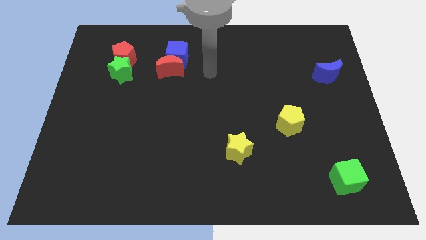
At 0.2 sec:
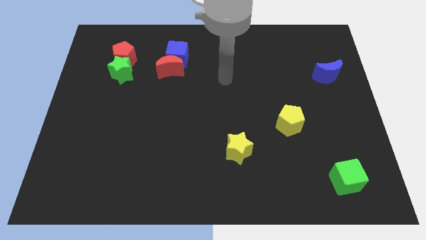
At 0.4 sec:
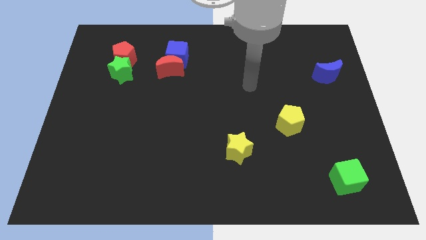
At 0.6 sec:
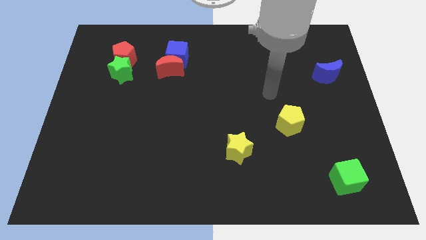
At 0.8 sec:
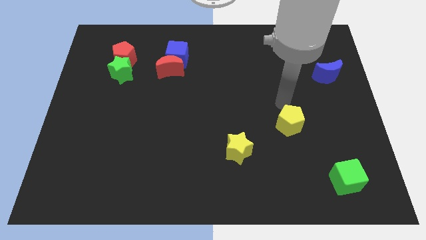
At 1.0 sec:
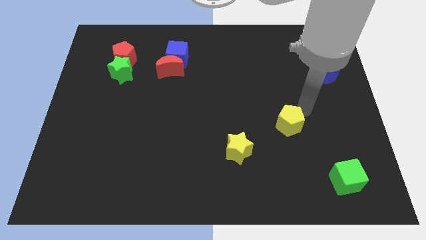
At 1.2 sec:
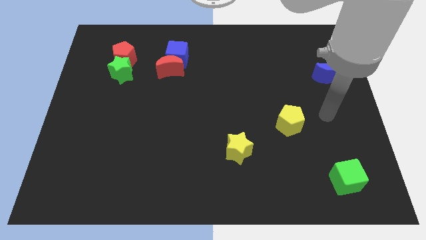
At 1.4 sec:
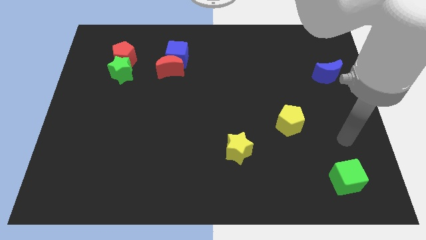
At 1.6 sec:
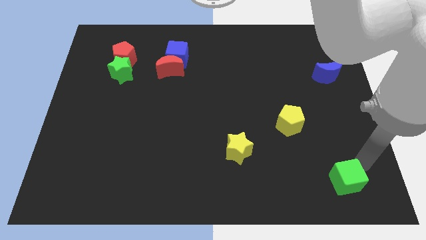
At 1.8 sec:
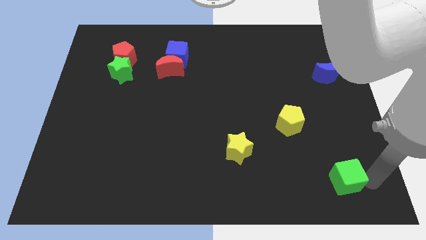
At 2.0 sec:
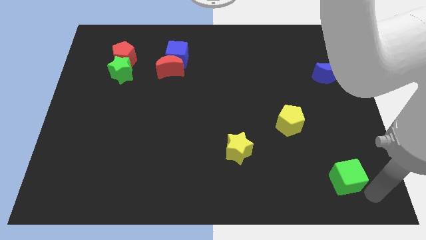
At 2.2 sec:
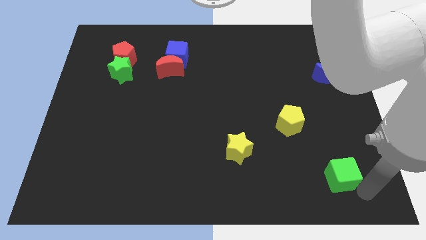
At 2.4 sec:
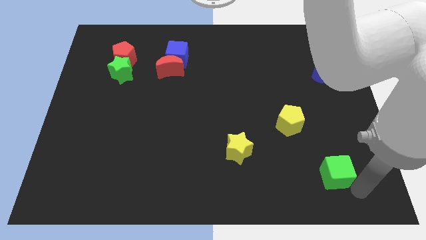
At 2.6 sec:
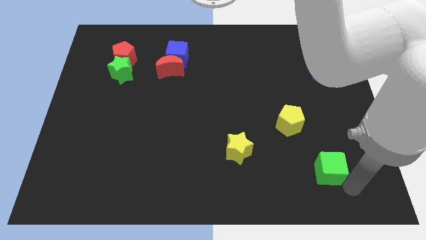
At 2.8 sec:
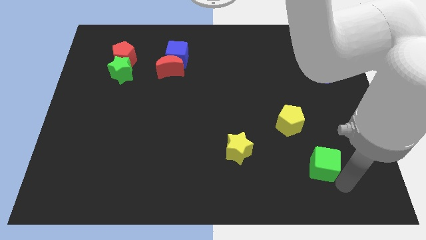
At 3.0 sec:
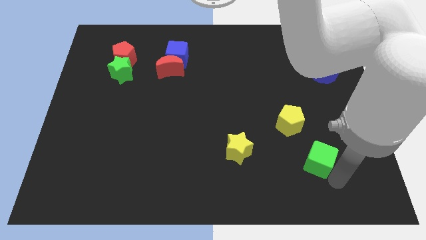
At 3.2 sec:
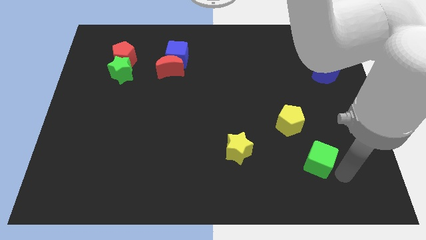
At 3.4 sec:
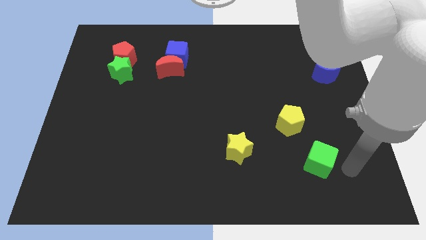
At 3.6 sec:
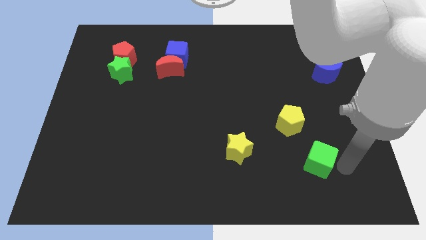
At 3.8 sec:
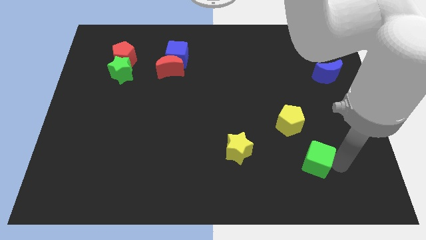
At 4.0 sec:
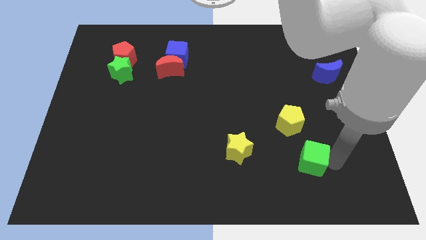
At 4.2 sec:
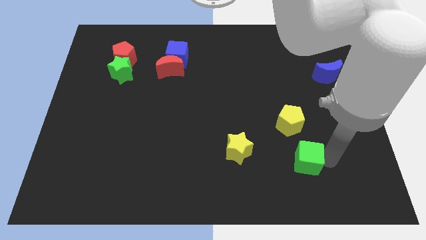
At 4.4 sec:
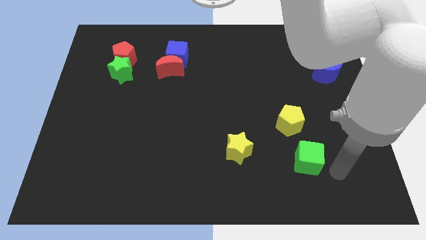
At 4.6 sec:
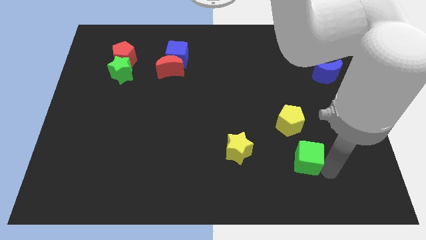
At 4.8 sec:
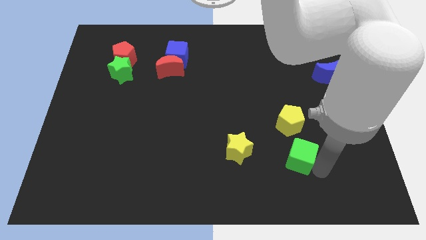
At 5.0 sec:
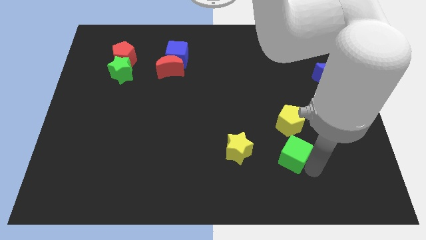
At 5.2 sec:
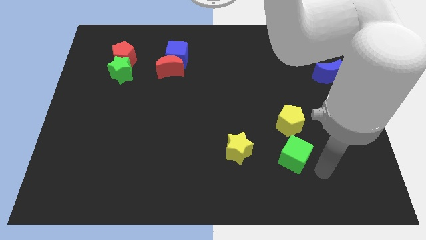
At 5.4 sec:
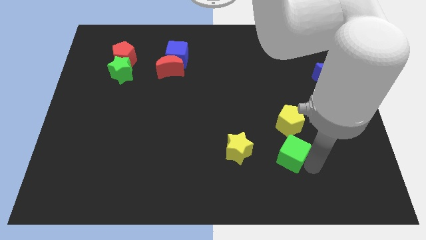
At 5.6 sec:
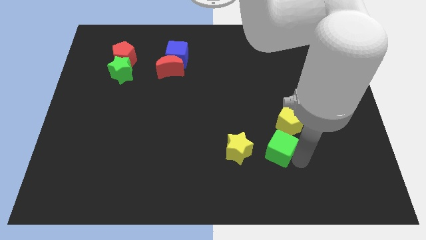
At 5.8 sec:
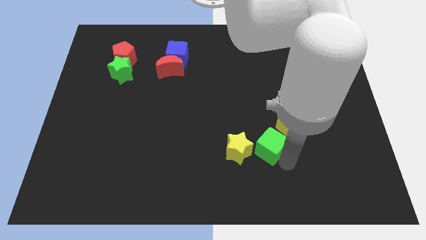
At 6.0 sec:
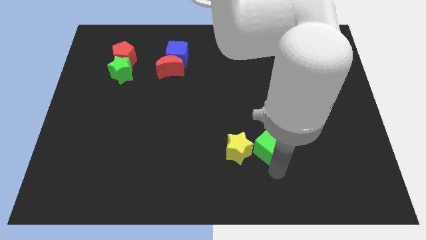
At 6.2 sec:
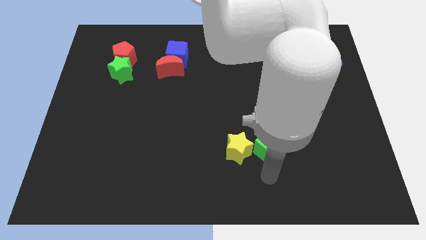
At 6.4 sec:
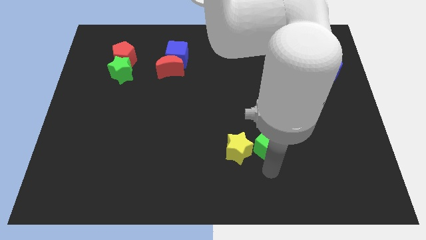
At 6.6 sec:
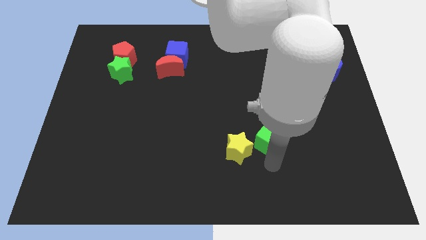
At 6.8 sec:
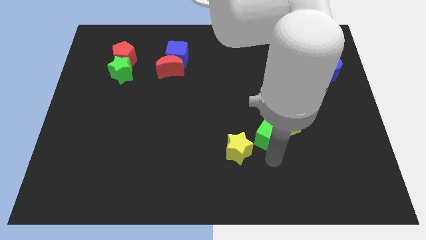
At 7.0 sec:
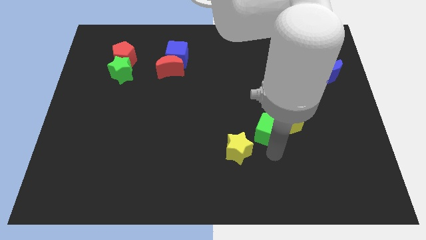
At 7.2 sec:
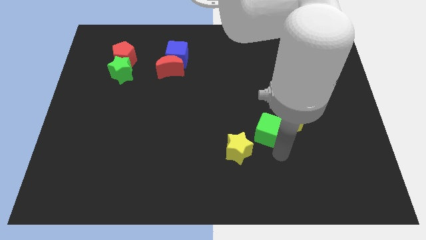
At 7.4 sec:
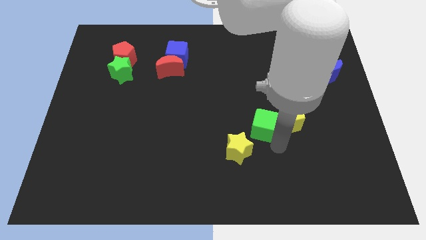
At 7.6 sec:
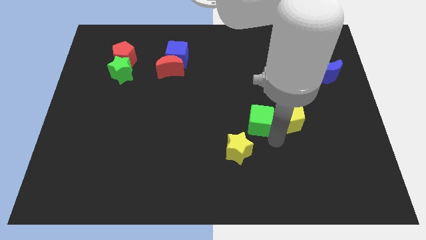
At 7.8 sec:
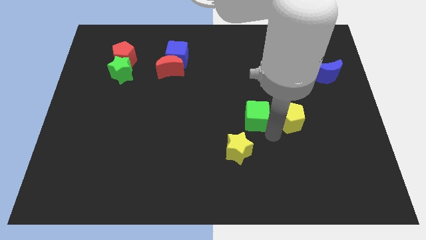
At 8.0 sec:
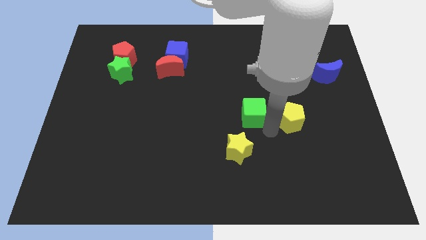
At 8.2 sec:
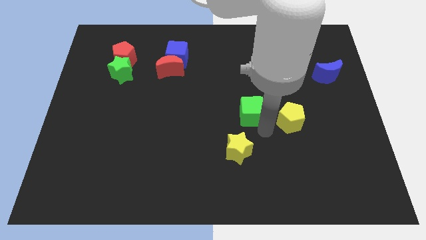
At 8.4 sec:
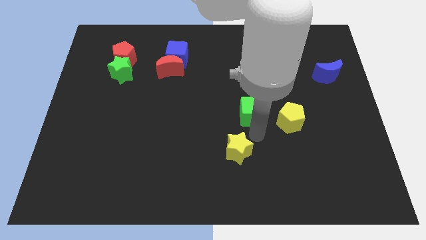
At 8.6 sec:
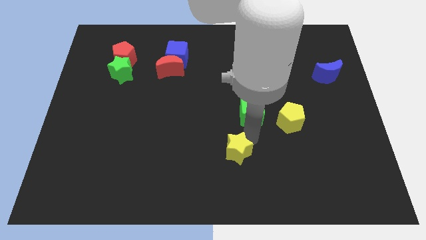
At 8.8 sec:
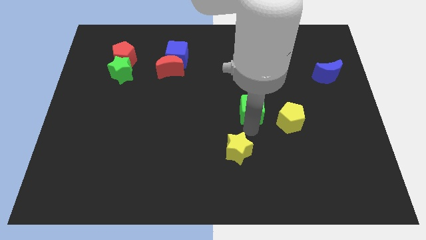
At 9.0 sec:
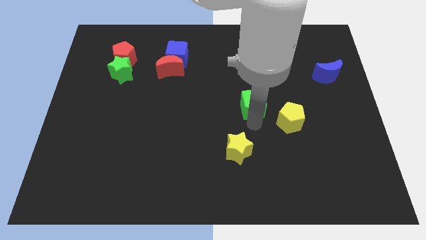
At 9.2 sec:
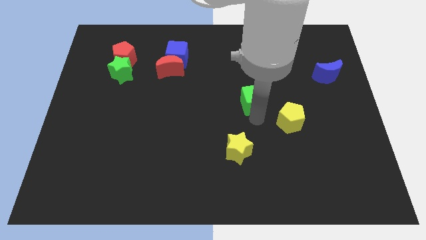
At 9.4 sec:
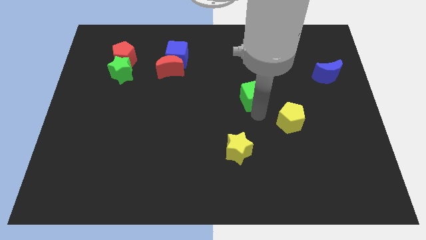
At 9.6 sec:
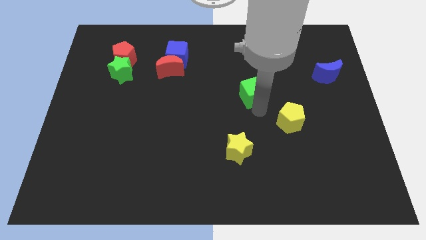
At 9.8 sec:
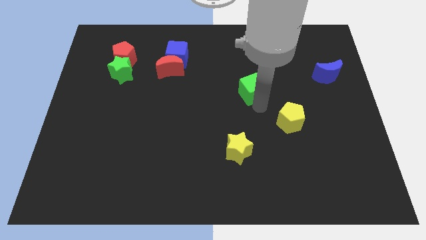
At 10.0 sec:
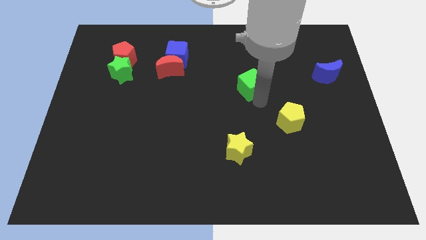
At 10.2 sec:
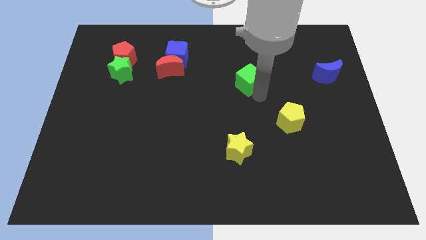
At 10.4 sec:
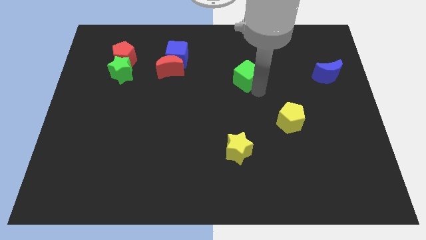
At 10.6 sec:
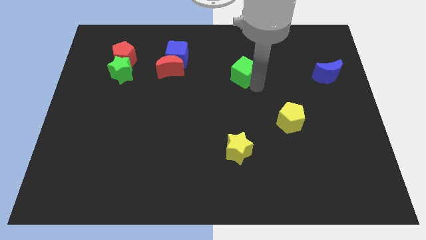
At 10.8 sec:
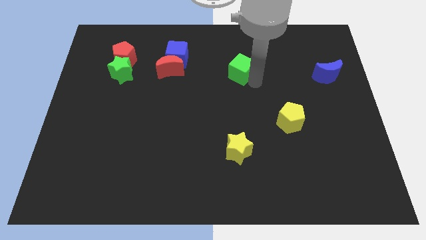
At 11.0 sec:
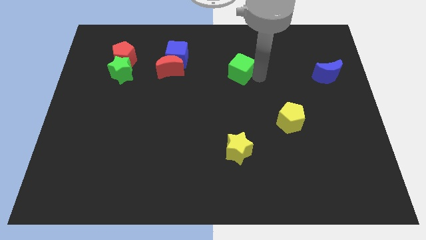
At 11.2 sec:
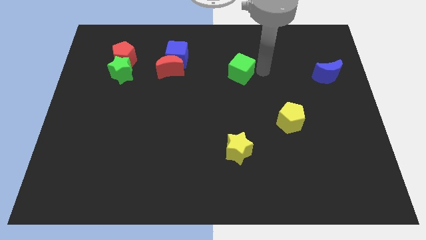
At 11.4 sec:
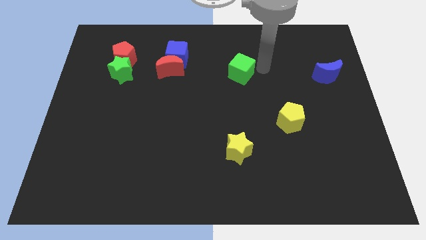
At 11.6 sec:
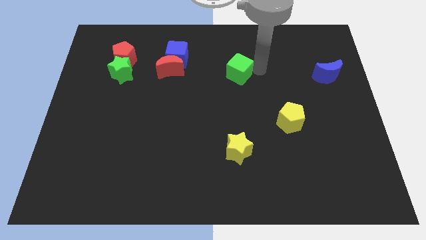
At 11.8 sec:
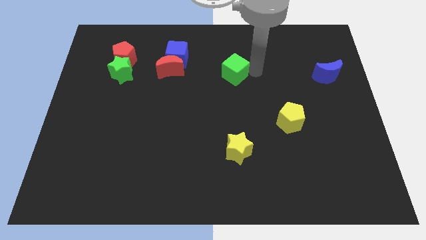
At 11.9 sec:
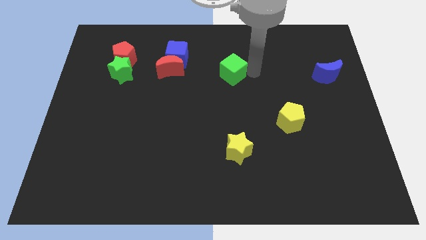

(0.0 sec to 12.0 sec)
slide the green cube right of the red moon
